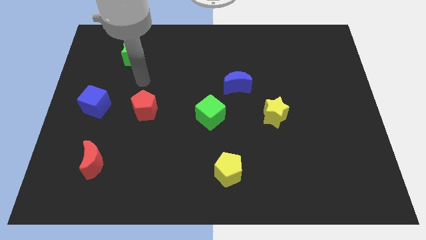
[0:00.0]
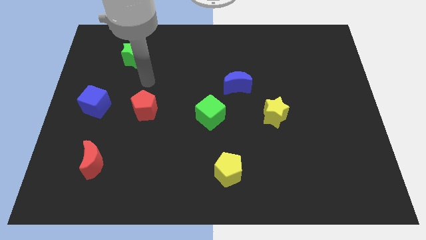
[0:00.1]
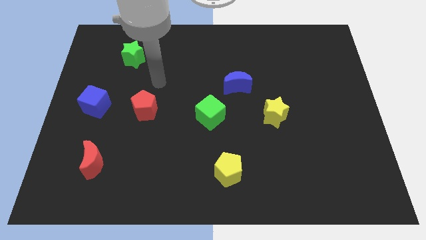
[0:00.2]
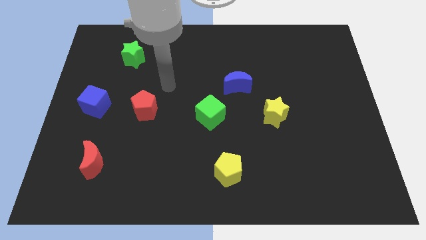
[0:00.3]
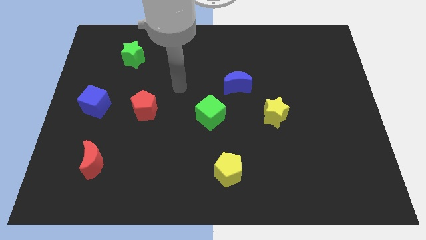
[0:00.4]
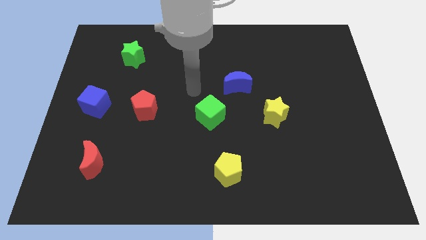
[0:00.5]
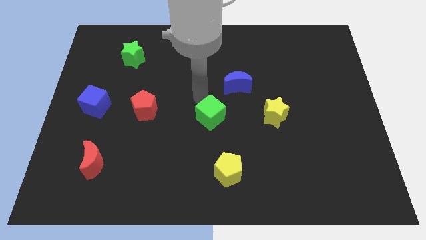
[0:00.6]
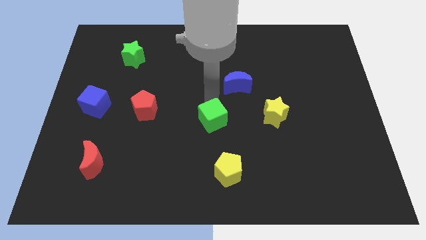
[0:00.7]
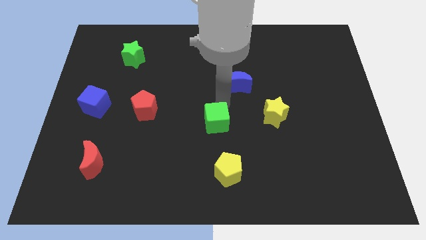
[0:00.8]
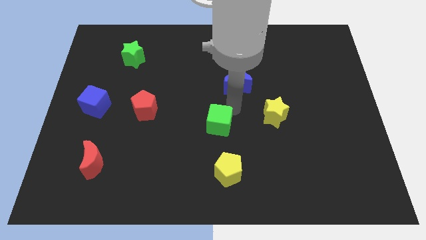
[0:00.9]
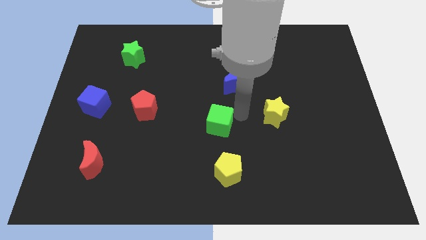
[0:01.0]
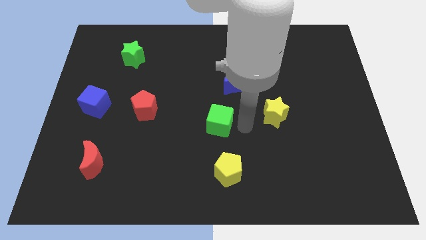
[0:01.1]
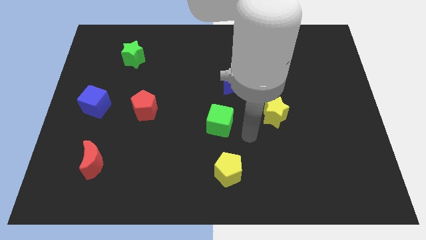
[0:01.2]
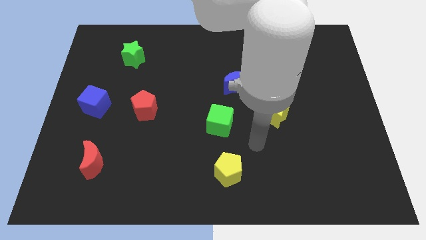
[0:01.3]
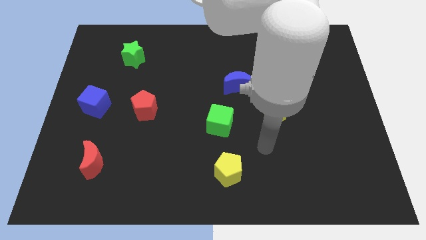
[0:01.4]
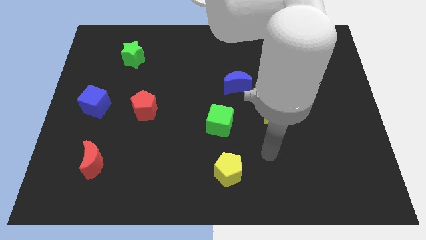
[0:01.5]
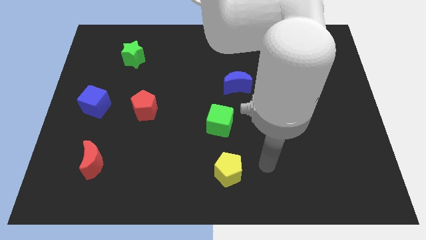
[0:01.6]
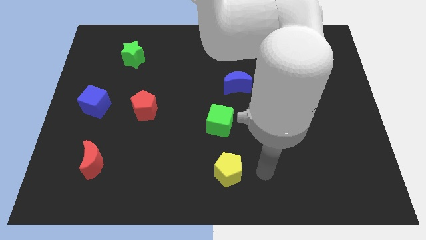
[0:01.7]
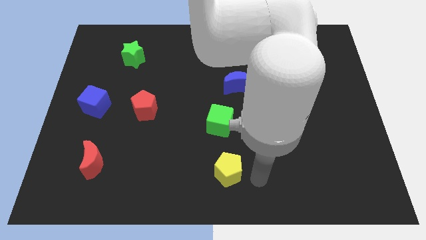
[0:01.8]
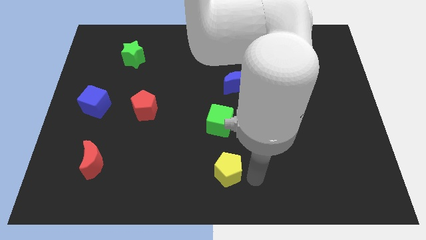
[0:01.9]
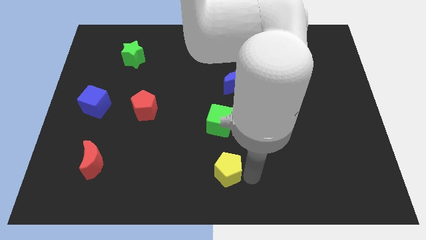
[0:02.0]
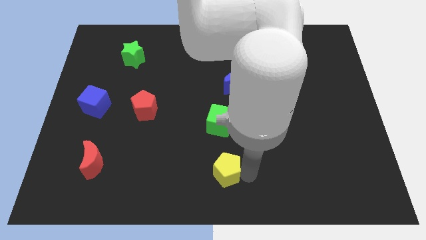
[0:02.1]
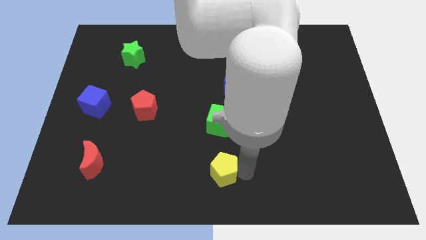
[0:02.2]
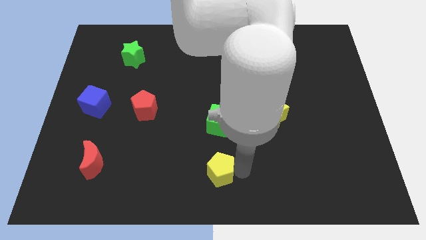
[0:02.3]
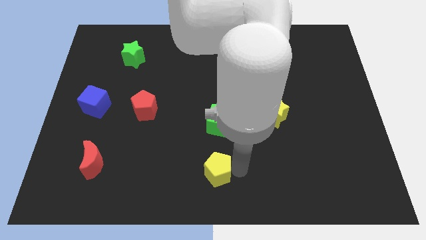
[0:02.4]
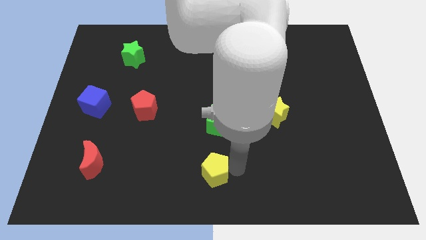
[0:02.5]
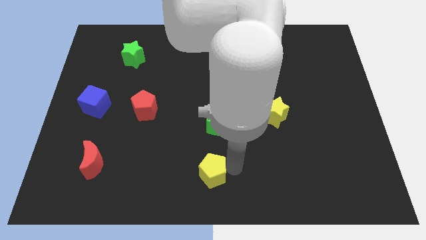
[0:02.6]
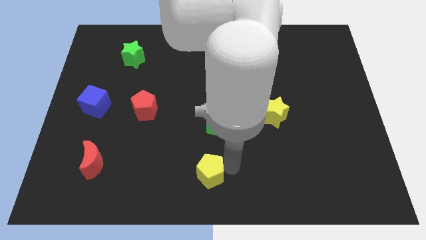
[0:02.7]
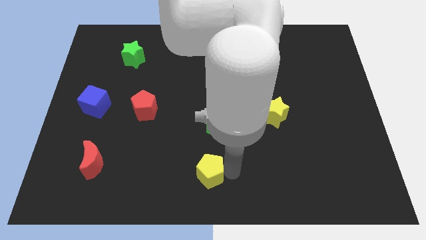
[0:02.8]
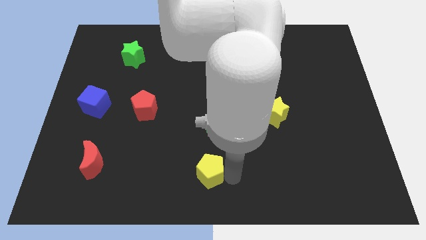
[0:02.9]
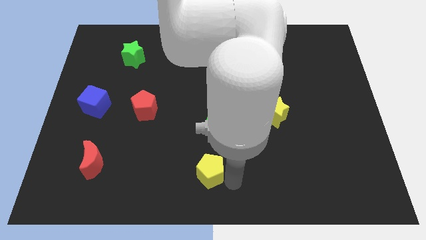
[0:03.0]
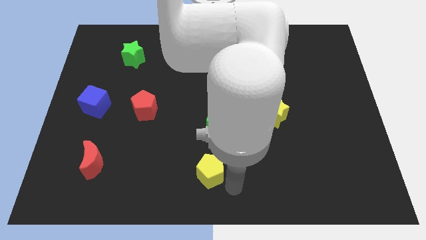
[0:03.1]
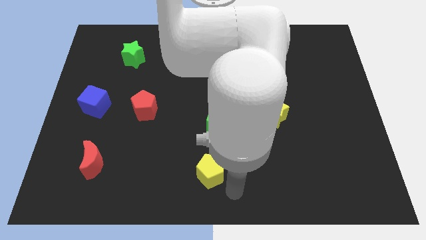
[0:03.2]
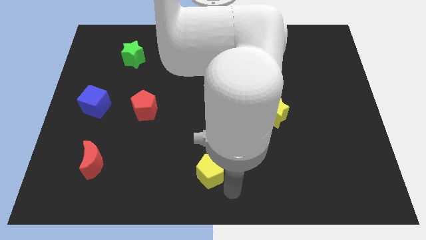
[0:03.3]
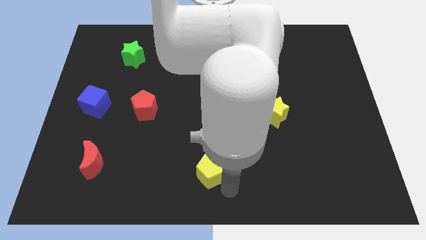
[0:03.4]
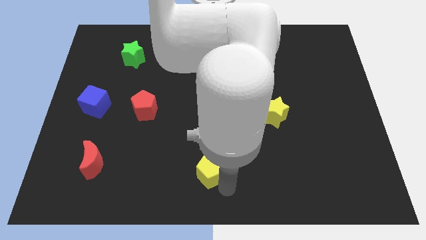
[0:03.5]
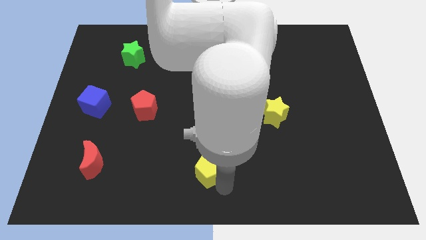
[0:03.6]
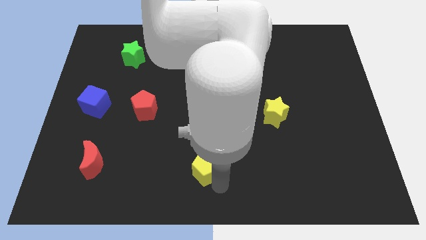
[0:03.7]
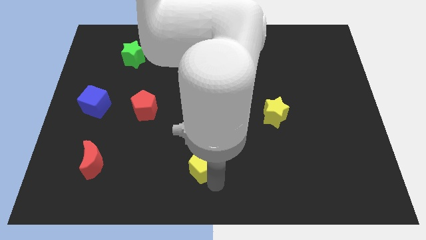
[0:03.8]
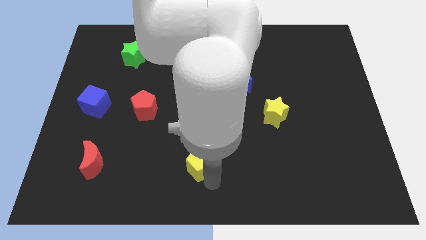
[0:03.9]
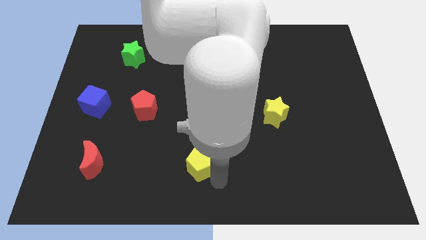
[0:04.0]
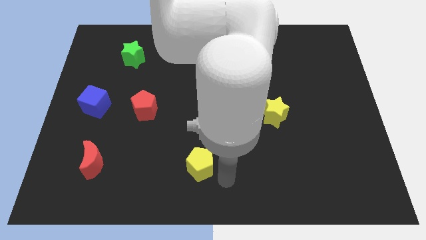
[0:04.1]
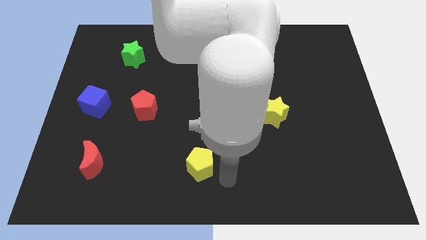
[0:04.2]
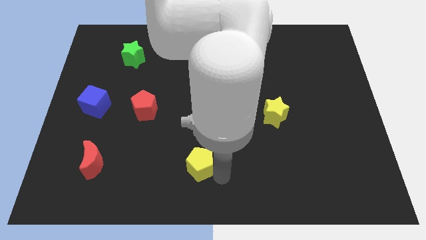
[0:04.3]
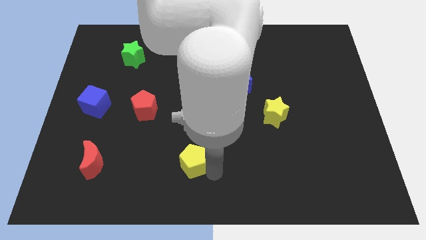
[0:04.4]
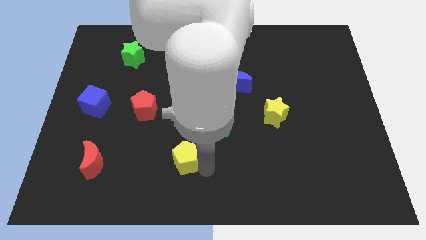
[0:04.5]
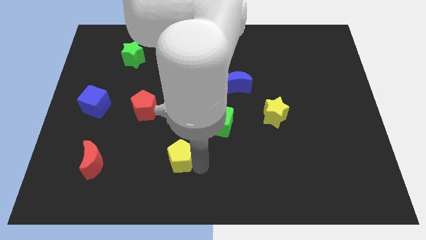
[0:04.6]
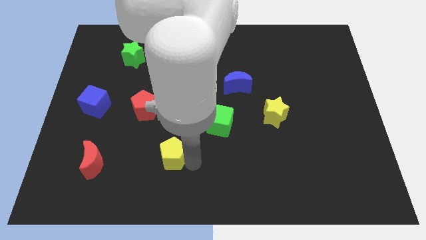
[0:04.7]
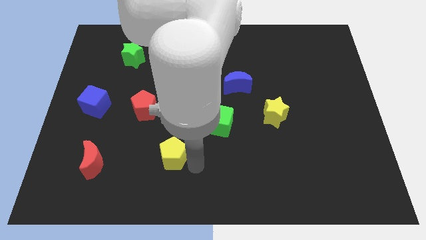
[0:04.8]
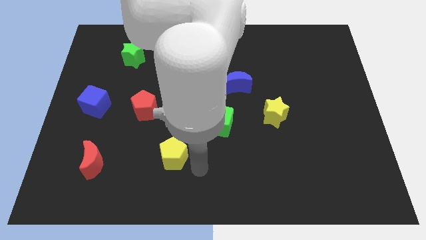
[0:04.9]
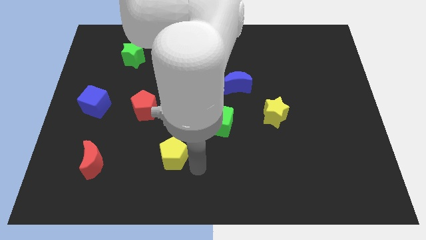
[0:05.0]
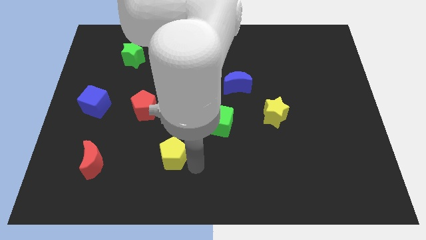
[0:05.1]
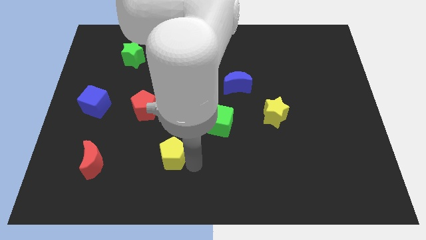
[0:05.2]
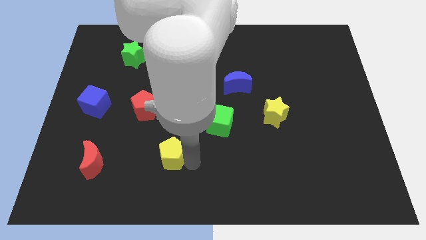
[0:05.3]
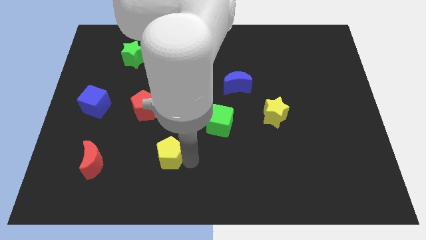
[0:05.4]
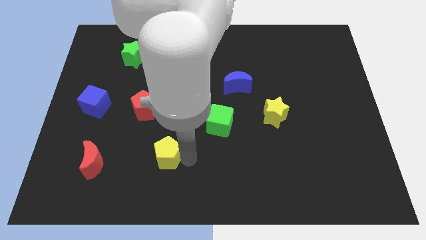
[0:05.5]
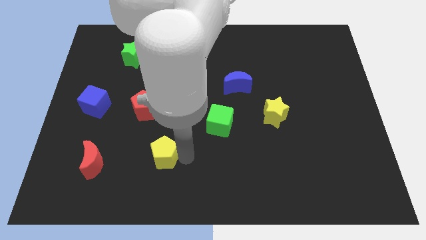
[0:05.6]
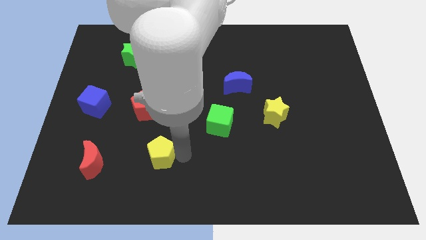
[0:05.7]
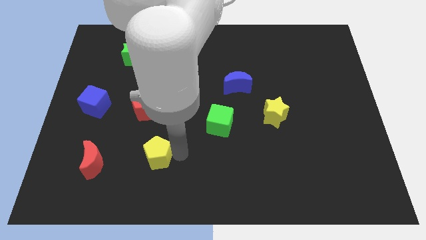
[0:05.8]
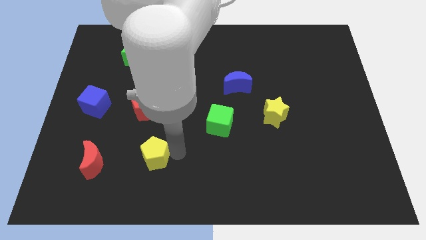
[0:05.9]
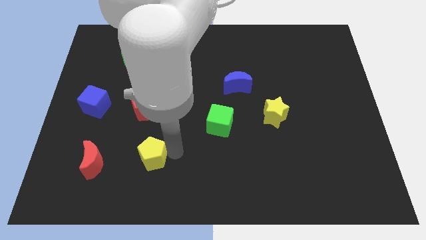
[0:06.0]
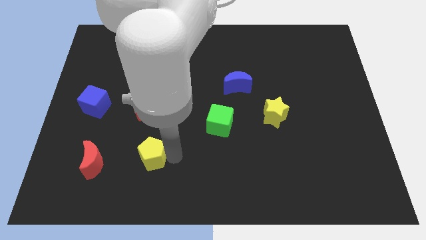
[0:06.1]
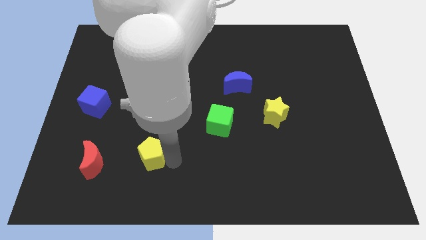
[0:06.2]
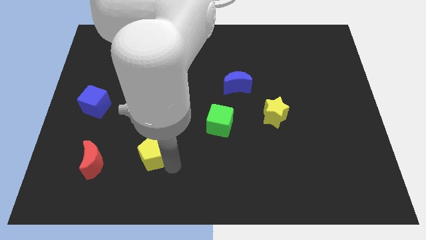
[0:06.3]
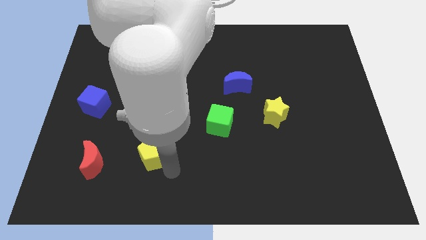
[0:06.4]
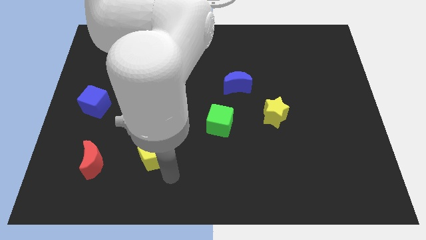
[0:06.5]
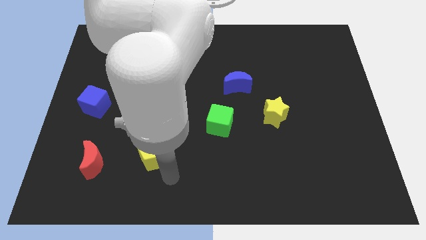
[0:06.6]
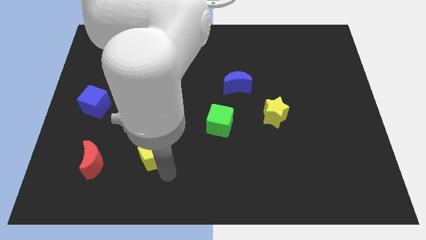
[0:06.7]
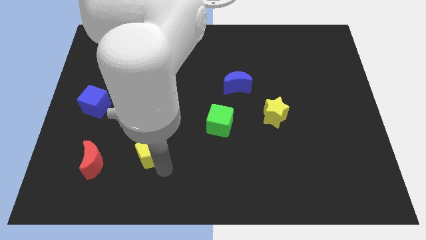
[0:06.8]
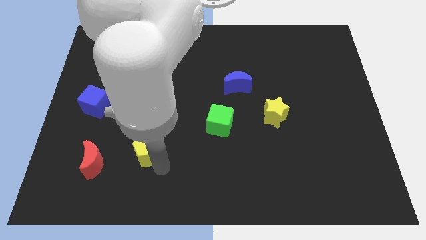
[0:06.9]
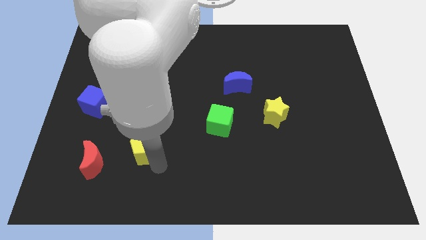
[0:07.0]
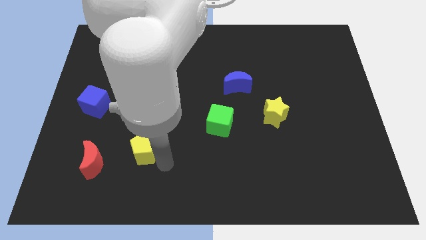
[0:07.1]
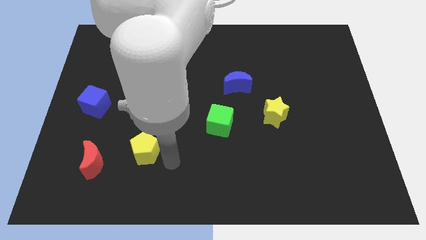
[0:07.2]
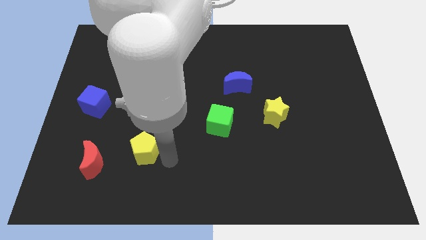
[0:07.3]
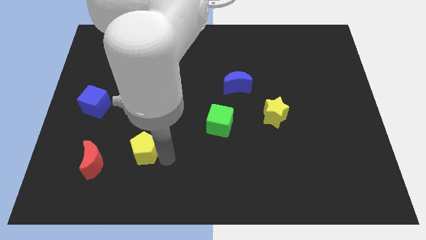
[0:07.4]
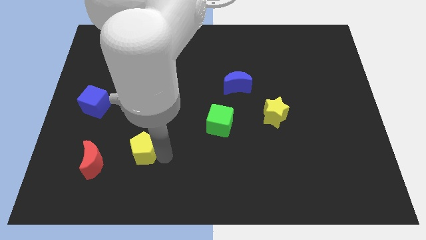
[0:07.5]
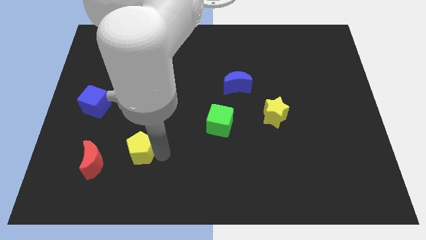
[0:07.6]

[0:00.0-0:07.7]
push the yellow pentagon diagonally up and to the right of the red moon

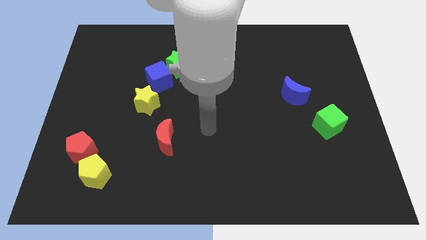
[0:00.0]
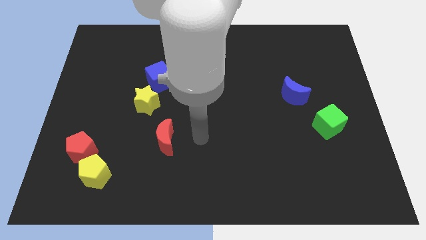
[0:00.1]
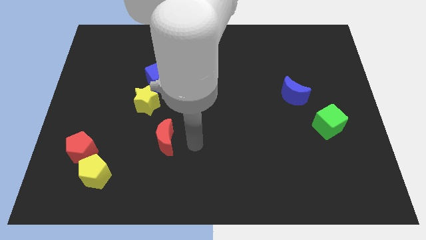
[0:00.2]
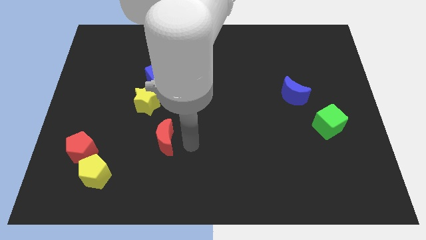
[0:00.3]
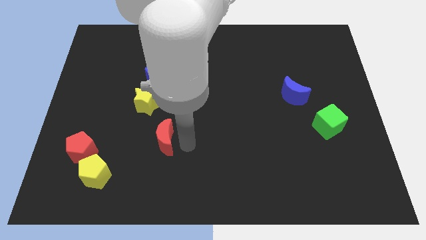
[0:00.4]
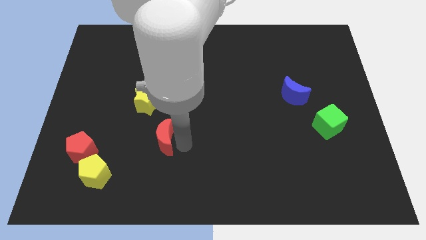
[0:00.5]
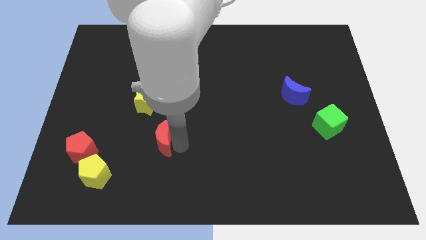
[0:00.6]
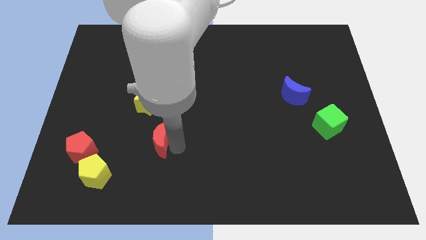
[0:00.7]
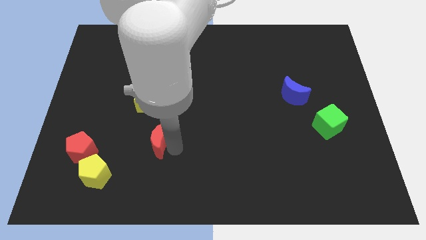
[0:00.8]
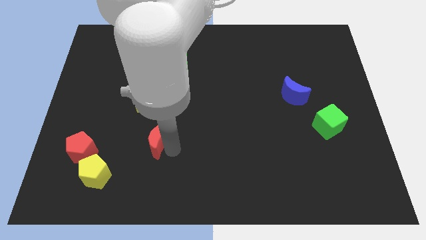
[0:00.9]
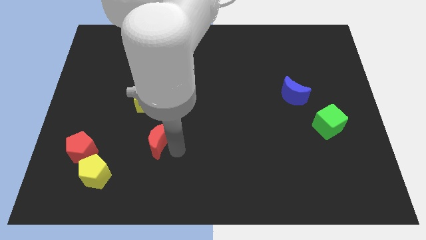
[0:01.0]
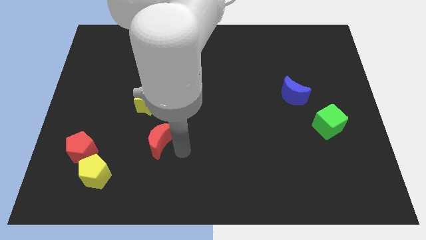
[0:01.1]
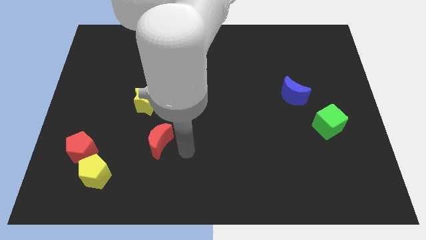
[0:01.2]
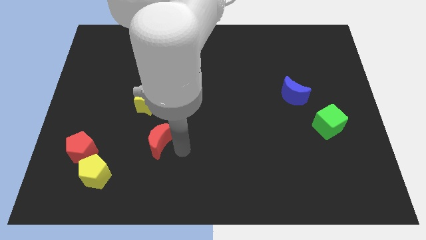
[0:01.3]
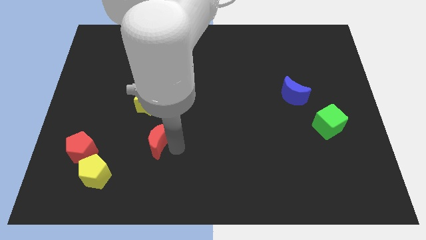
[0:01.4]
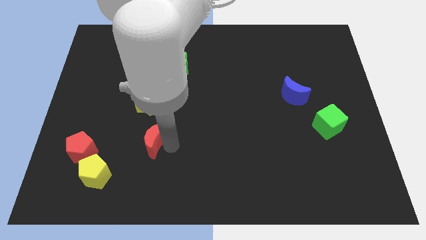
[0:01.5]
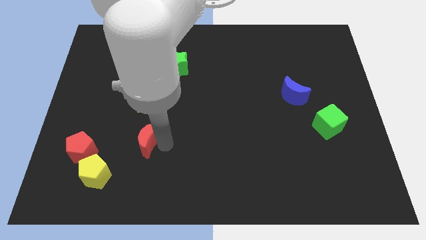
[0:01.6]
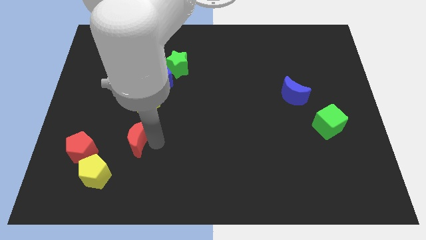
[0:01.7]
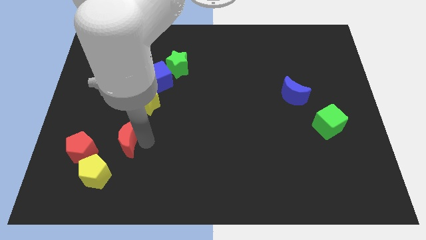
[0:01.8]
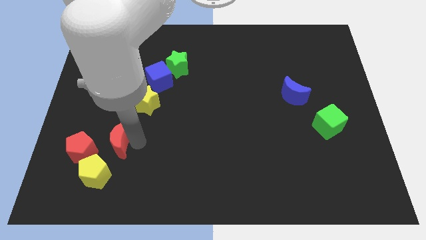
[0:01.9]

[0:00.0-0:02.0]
move the red moon to the top side of the yellow pentagon
